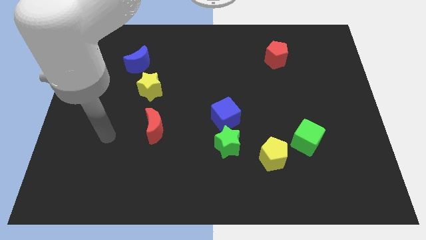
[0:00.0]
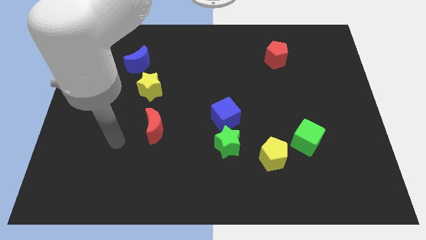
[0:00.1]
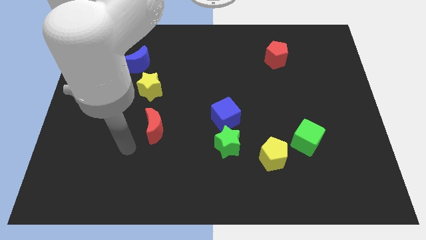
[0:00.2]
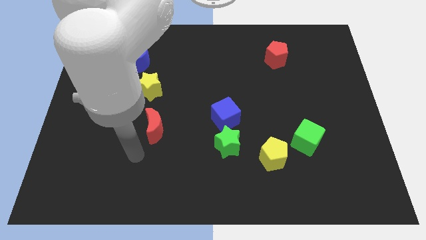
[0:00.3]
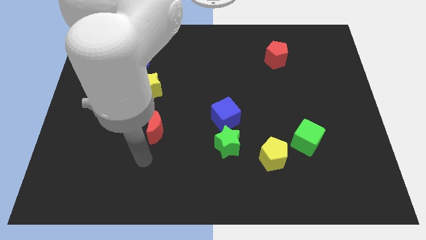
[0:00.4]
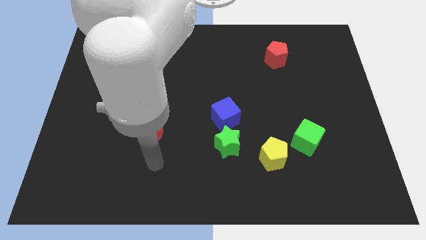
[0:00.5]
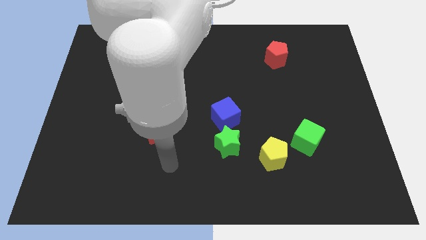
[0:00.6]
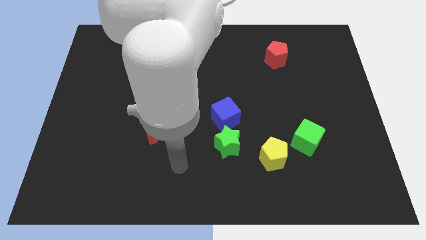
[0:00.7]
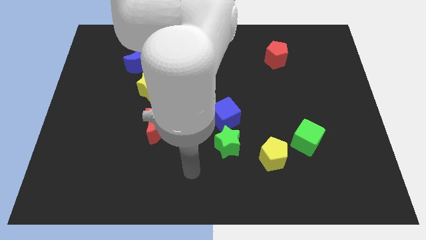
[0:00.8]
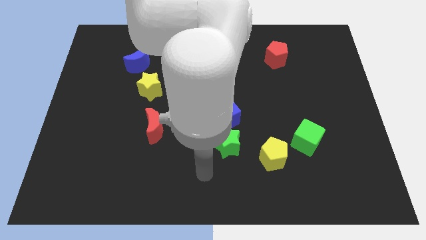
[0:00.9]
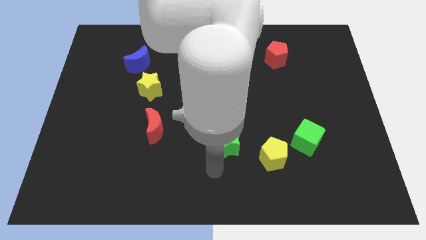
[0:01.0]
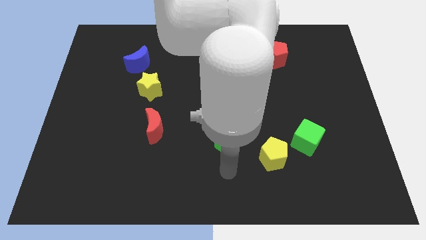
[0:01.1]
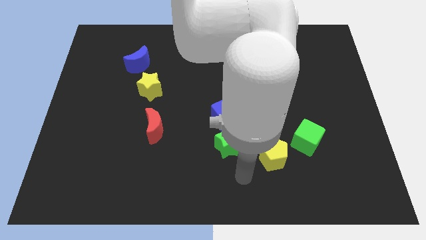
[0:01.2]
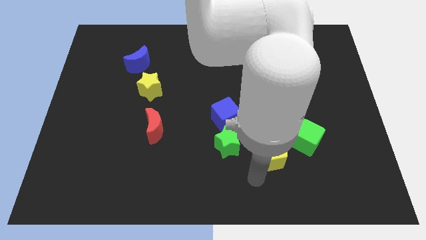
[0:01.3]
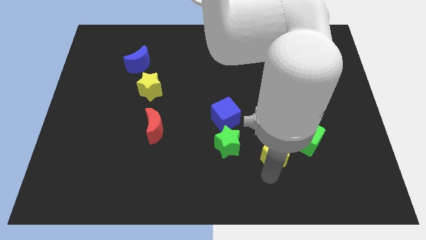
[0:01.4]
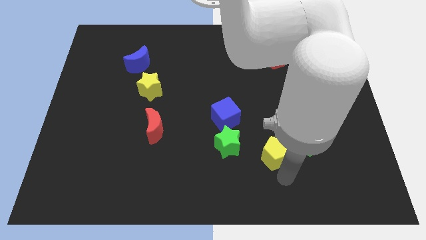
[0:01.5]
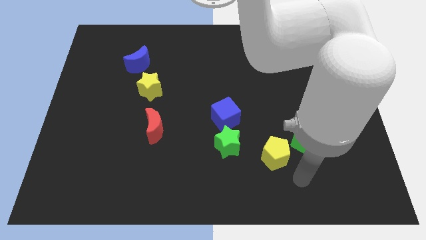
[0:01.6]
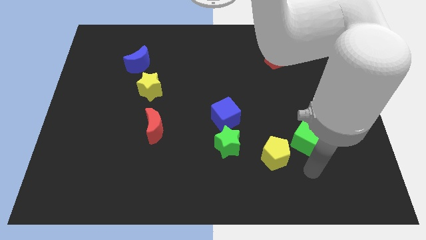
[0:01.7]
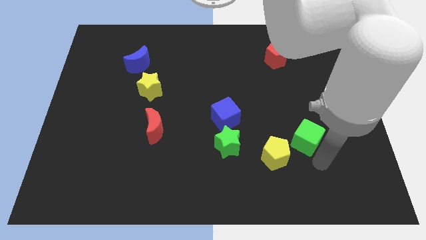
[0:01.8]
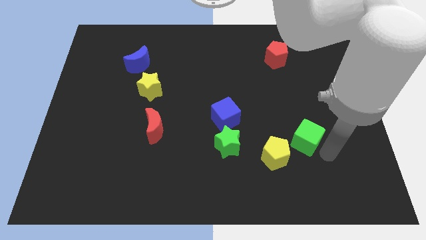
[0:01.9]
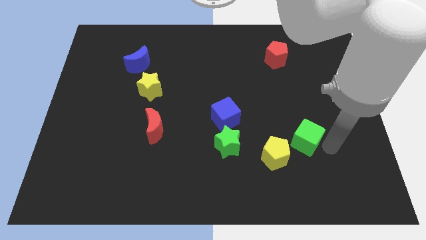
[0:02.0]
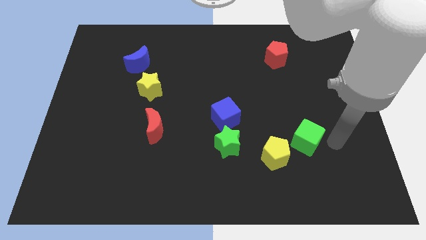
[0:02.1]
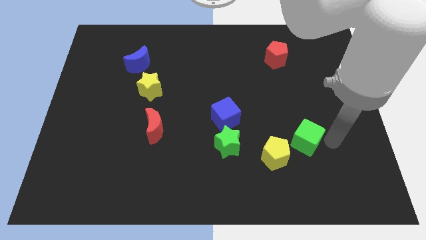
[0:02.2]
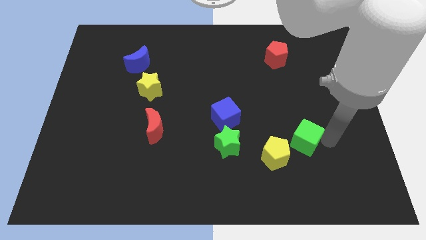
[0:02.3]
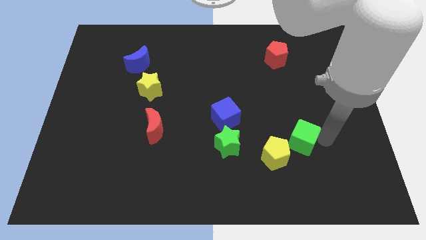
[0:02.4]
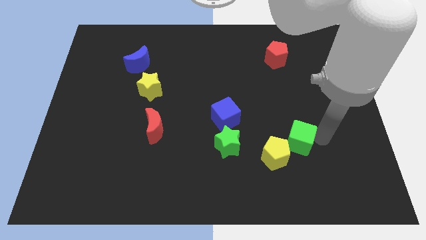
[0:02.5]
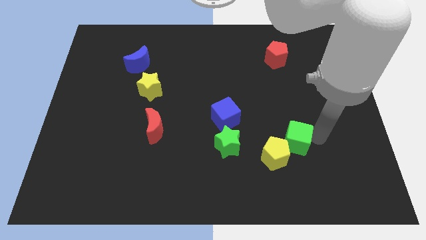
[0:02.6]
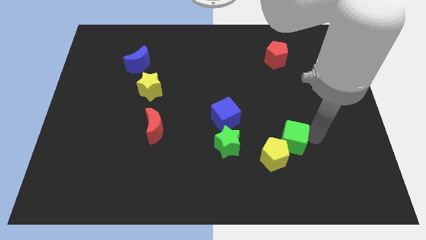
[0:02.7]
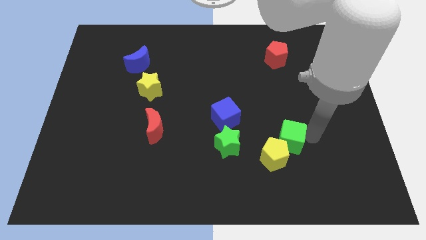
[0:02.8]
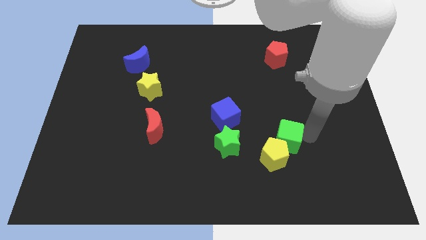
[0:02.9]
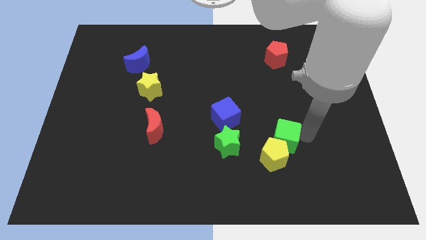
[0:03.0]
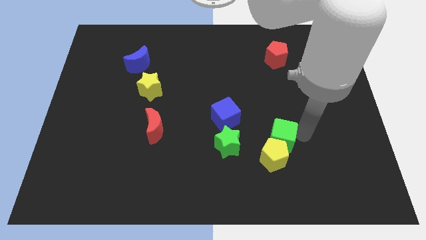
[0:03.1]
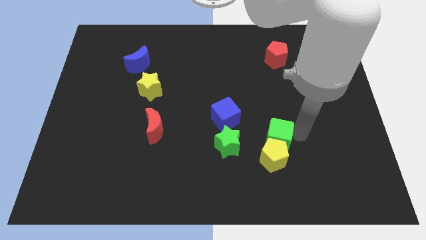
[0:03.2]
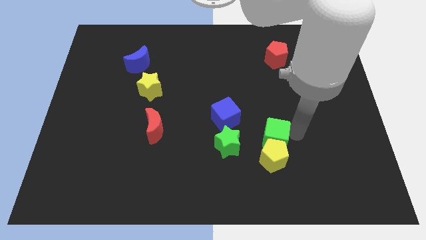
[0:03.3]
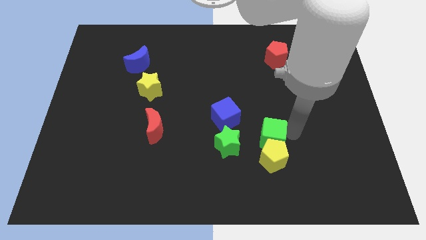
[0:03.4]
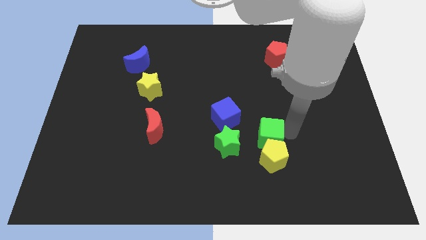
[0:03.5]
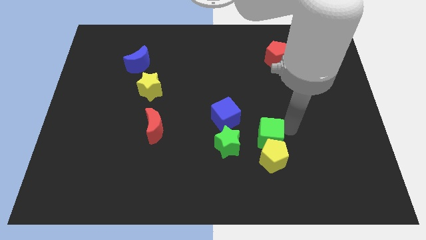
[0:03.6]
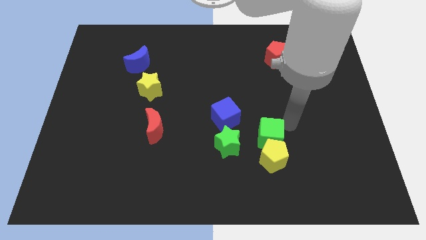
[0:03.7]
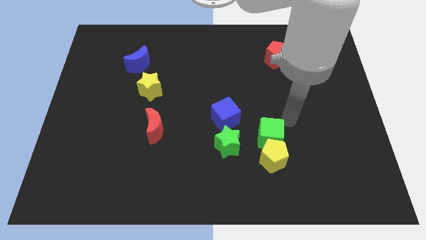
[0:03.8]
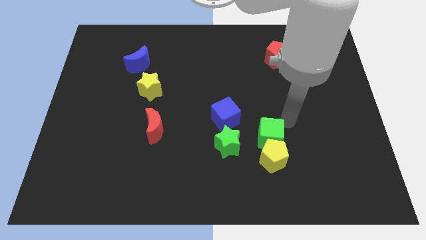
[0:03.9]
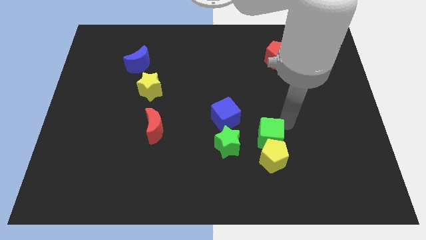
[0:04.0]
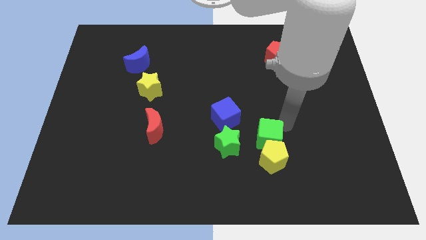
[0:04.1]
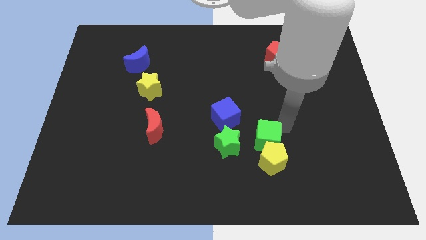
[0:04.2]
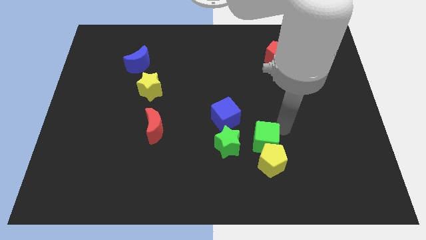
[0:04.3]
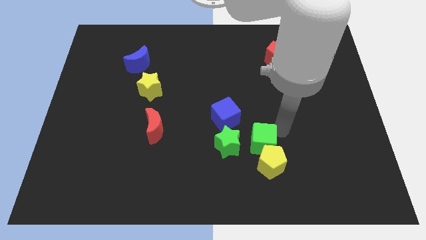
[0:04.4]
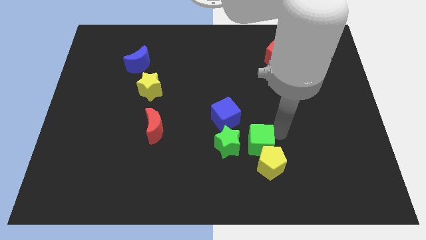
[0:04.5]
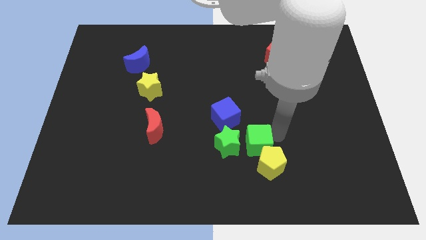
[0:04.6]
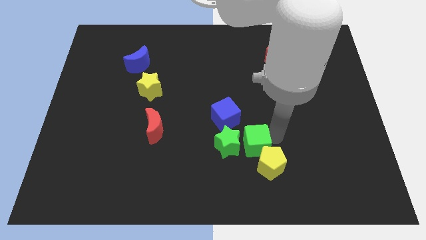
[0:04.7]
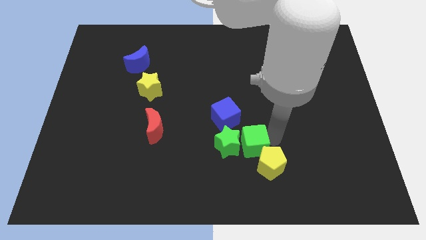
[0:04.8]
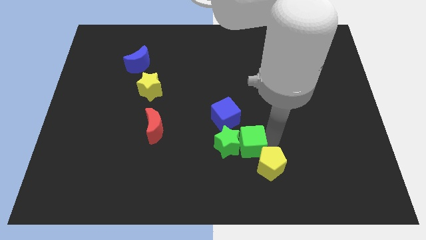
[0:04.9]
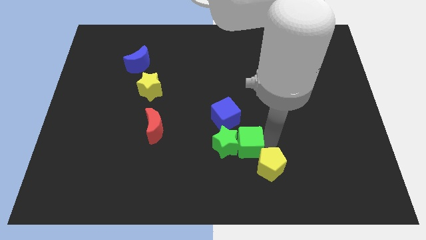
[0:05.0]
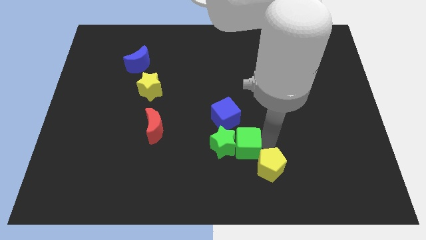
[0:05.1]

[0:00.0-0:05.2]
move the green cube to the left side of the yellow pentagon

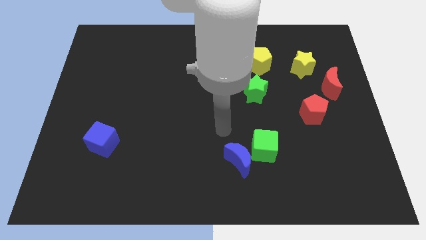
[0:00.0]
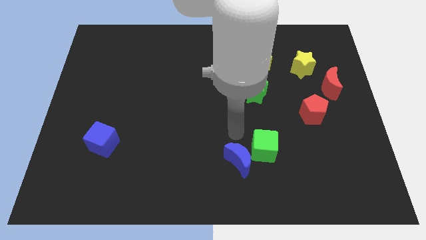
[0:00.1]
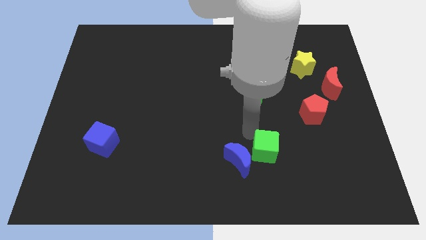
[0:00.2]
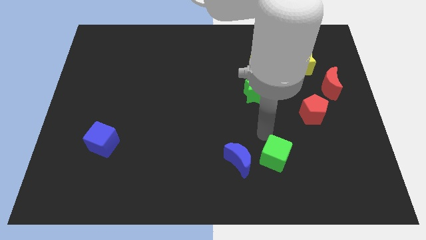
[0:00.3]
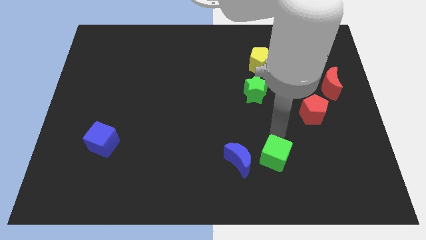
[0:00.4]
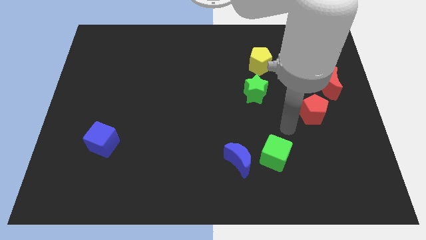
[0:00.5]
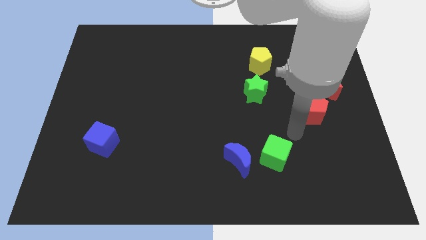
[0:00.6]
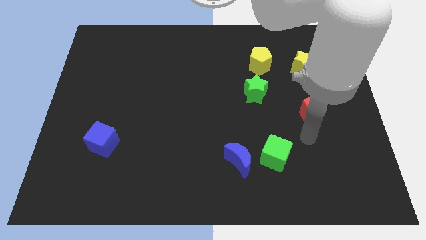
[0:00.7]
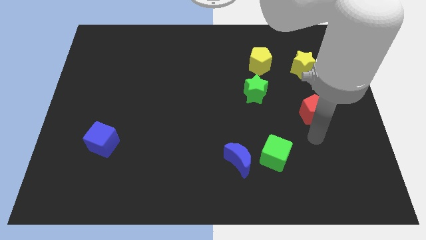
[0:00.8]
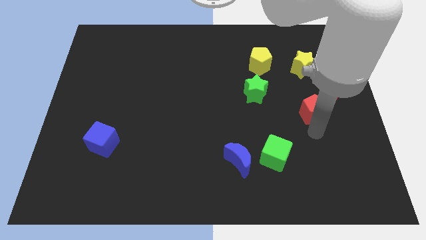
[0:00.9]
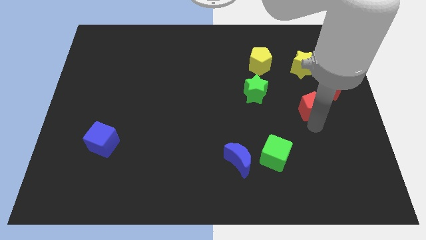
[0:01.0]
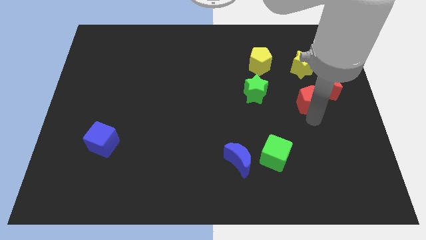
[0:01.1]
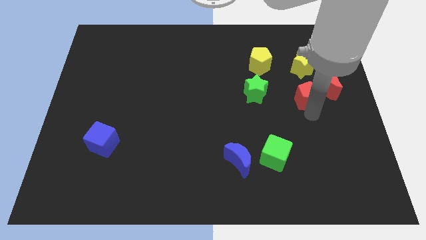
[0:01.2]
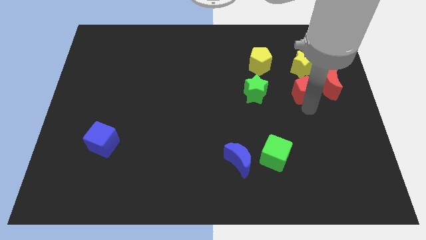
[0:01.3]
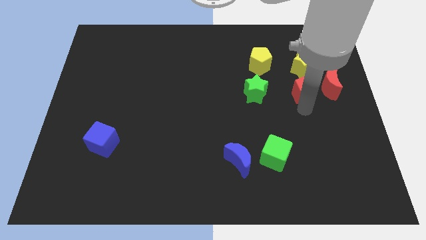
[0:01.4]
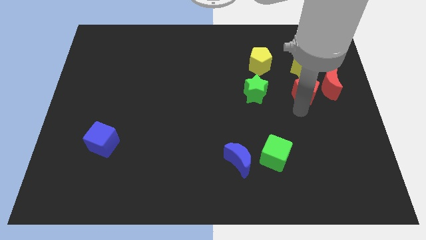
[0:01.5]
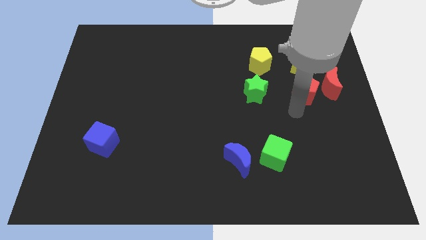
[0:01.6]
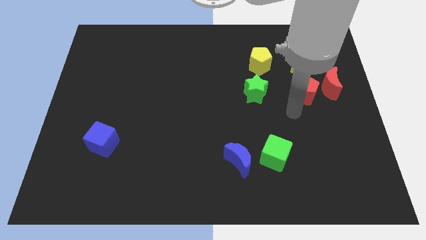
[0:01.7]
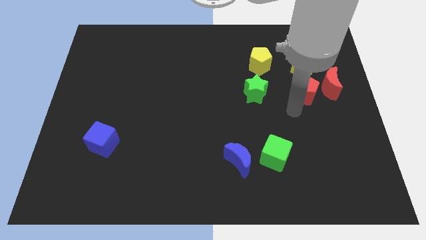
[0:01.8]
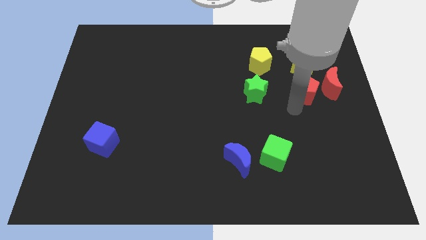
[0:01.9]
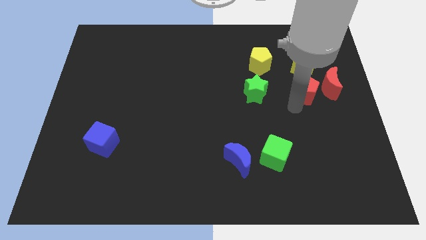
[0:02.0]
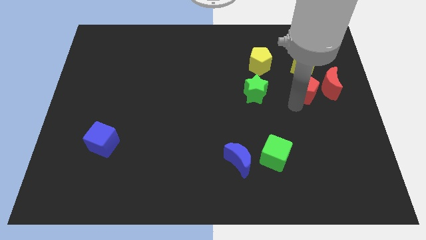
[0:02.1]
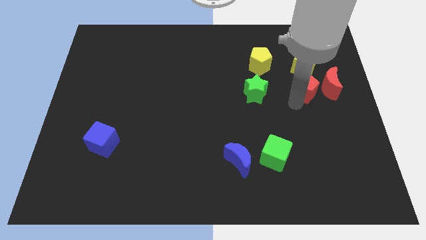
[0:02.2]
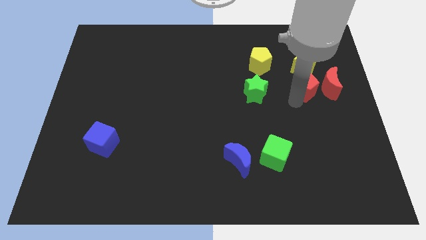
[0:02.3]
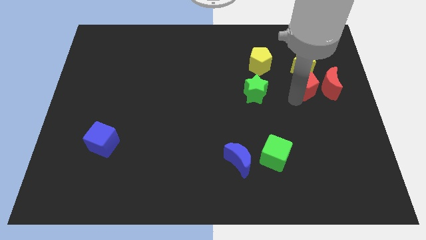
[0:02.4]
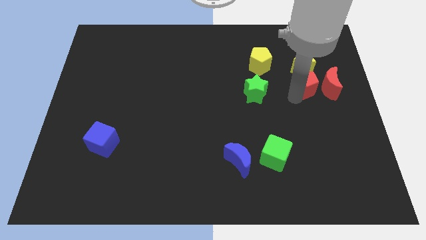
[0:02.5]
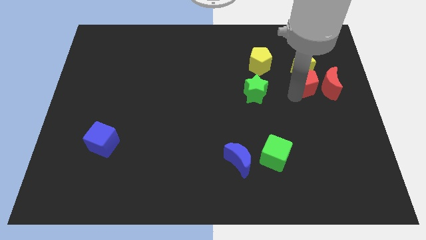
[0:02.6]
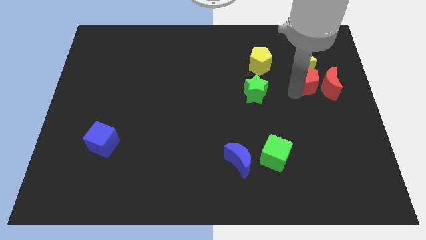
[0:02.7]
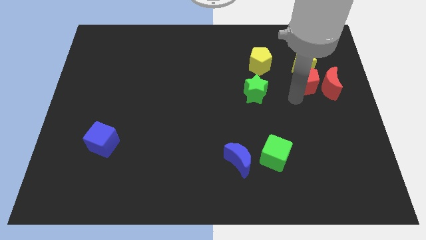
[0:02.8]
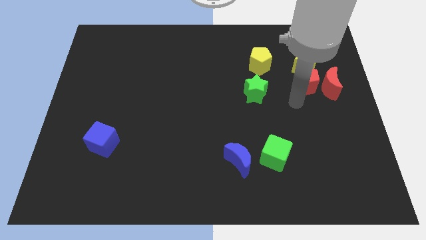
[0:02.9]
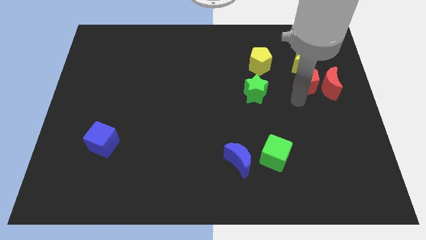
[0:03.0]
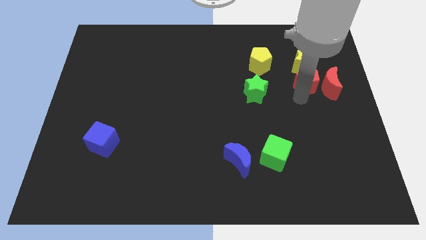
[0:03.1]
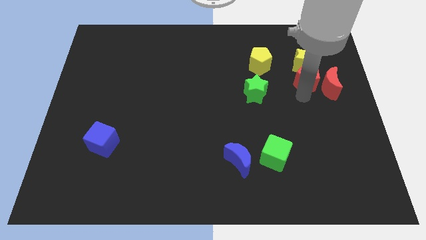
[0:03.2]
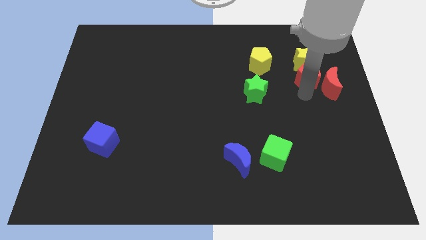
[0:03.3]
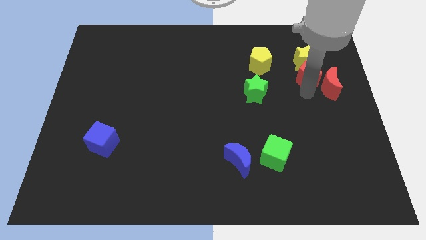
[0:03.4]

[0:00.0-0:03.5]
push the red pentagon just right of the yellow pentagon
